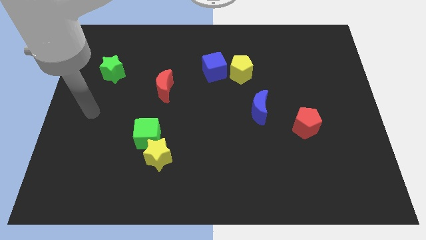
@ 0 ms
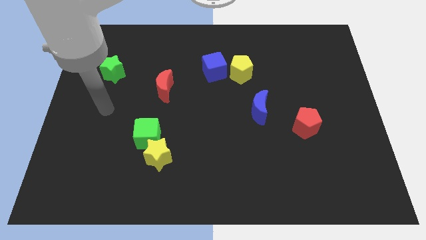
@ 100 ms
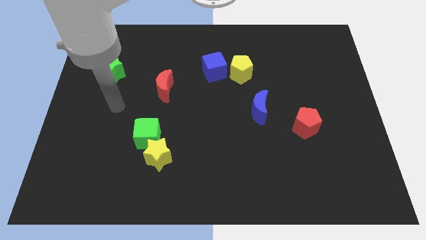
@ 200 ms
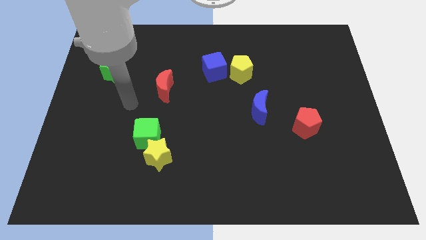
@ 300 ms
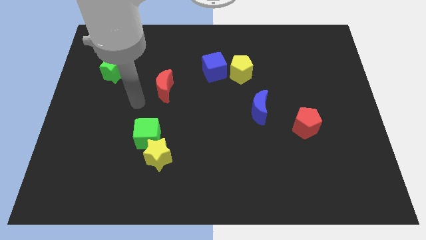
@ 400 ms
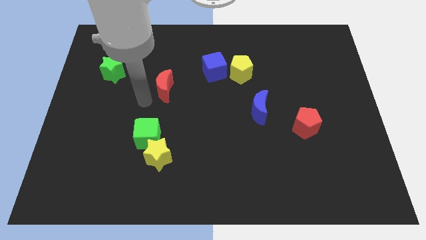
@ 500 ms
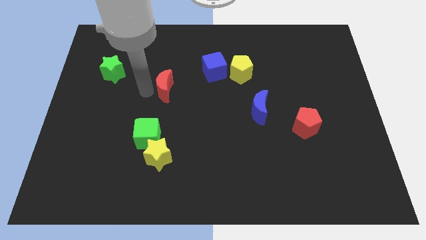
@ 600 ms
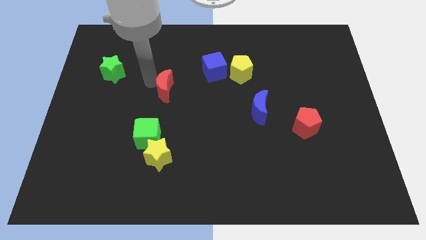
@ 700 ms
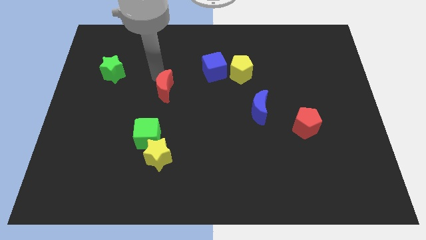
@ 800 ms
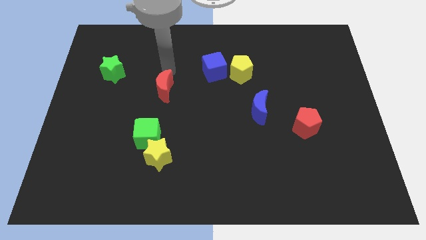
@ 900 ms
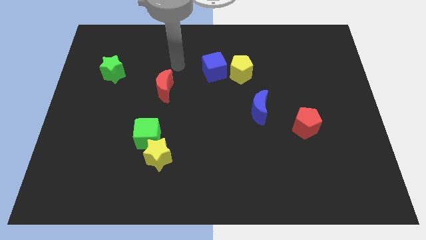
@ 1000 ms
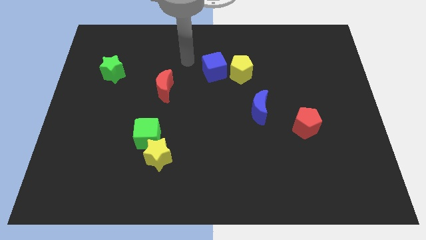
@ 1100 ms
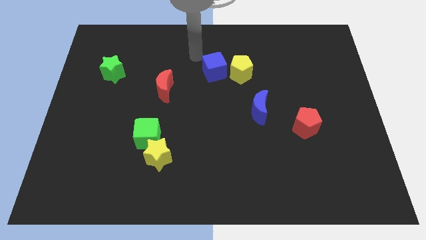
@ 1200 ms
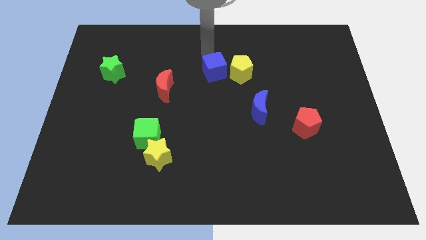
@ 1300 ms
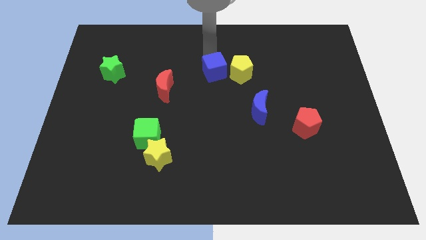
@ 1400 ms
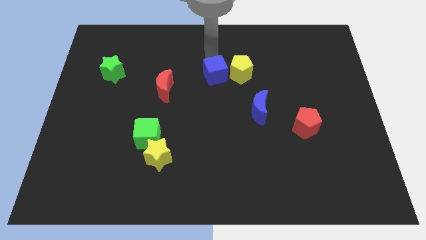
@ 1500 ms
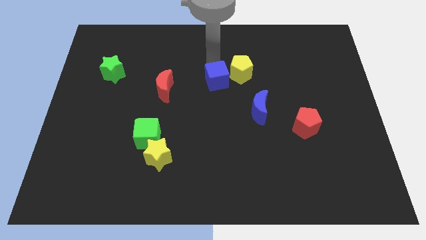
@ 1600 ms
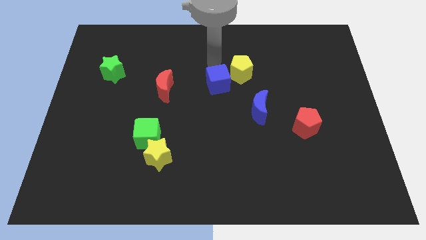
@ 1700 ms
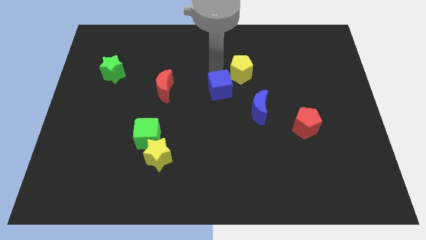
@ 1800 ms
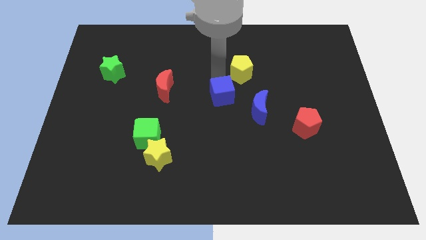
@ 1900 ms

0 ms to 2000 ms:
push the blue cube down a bit

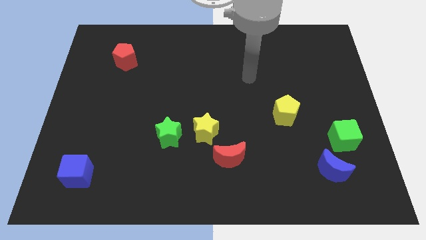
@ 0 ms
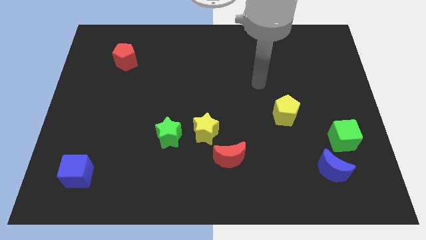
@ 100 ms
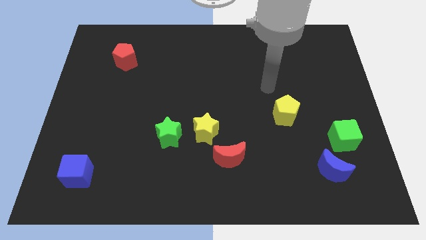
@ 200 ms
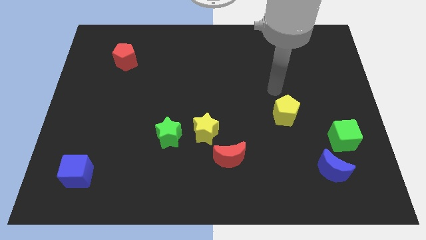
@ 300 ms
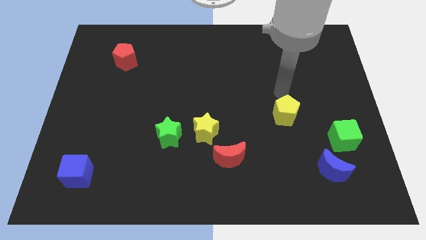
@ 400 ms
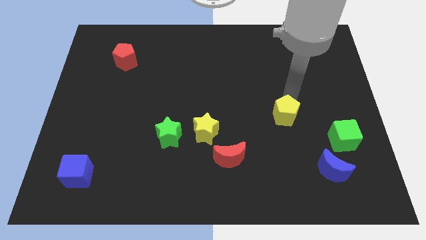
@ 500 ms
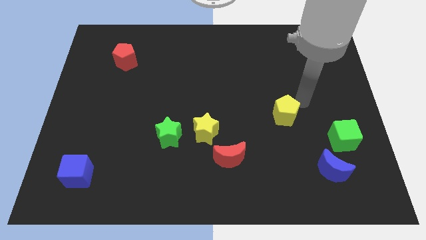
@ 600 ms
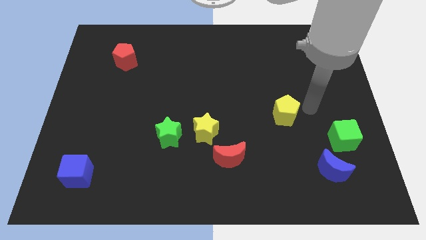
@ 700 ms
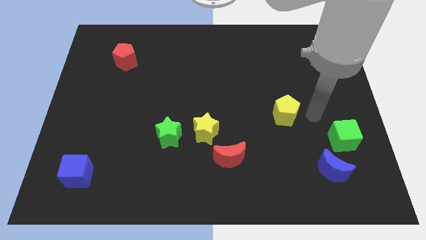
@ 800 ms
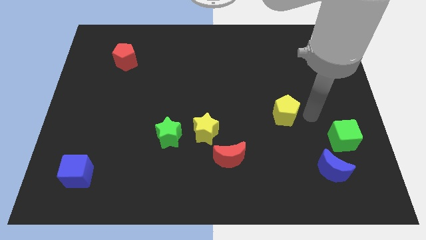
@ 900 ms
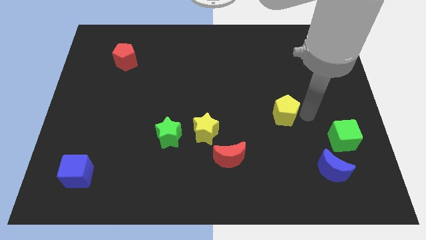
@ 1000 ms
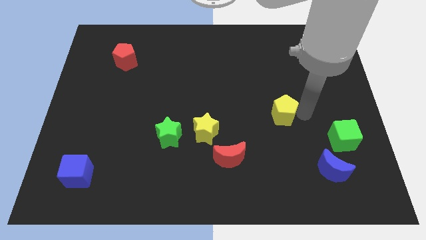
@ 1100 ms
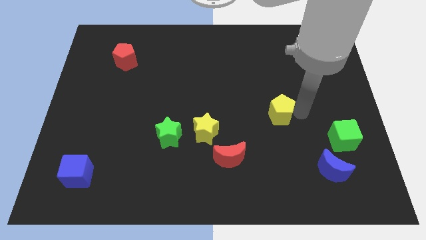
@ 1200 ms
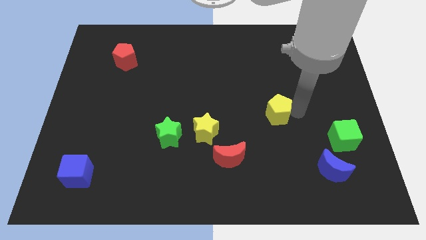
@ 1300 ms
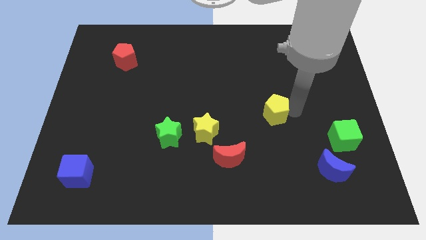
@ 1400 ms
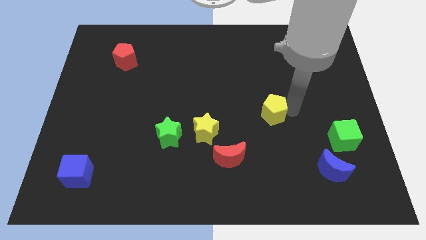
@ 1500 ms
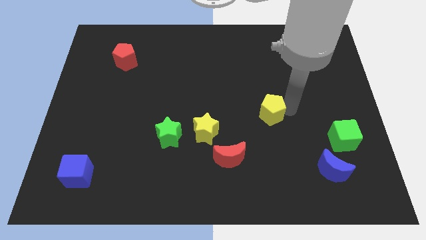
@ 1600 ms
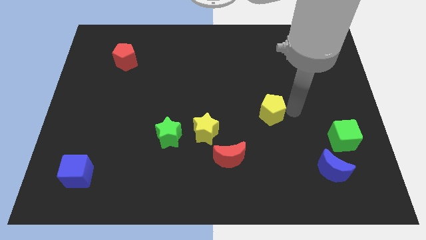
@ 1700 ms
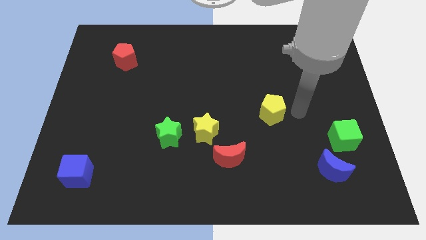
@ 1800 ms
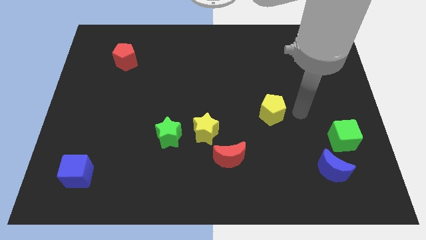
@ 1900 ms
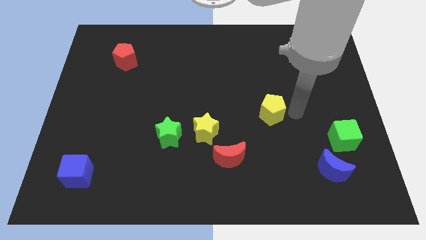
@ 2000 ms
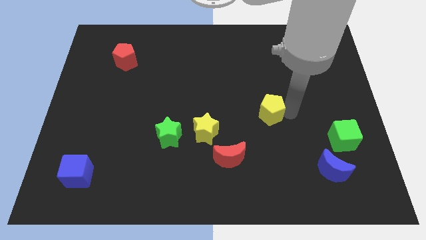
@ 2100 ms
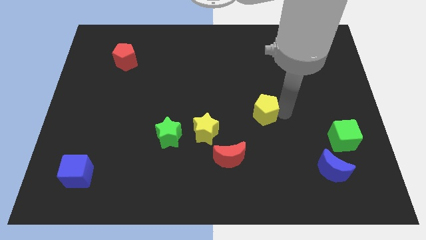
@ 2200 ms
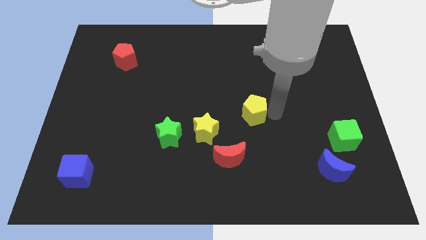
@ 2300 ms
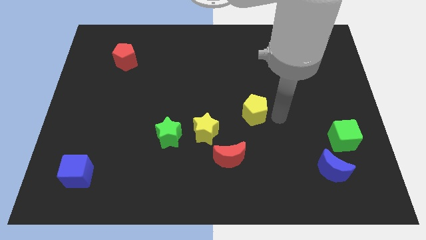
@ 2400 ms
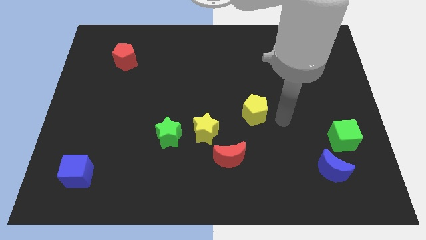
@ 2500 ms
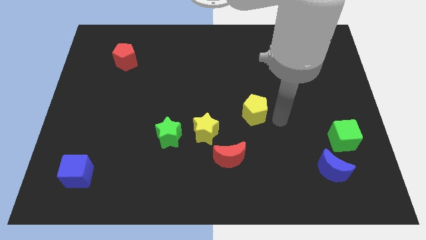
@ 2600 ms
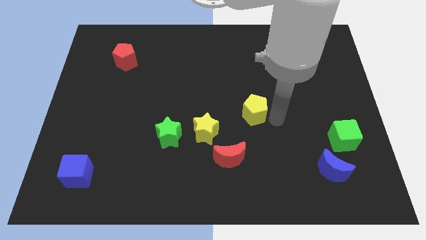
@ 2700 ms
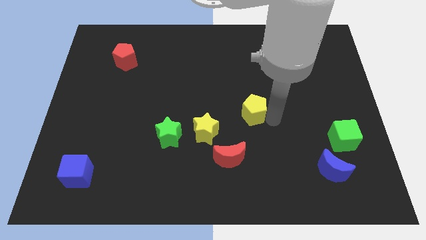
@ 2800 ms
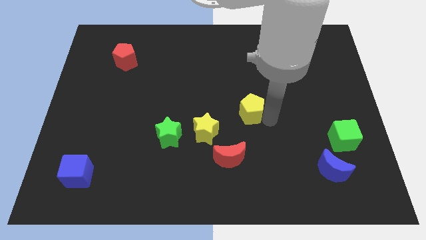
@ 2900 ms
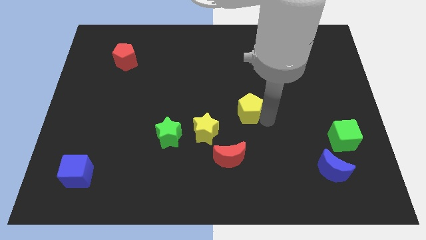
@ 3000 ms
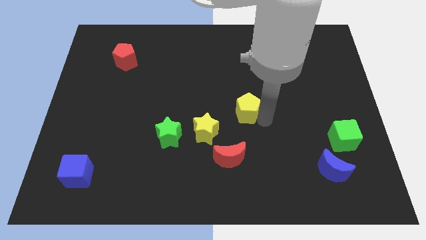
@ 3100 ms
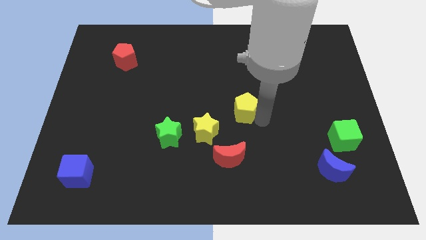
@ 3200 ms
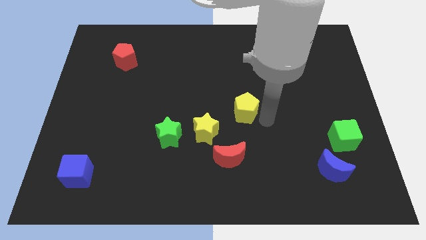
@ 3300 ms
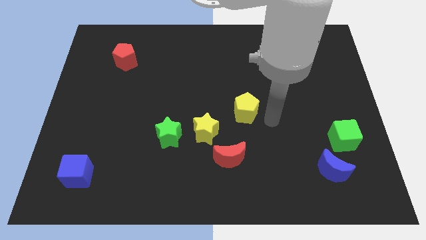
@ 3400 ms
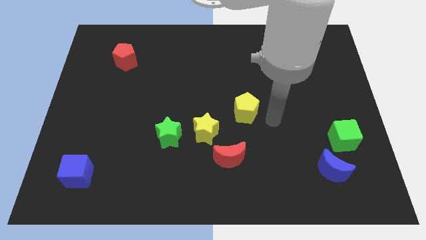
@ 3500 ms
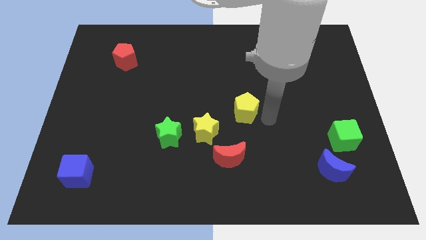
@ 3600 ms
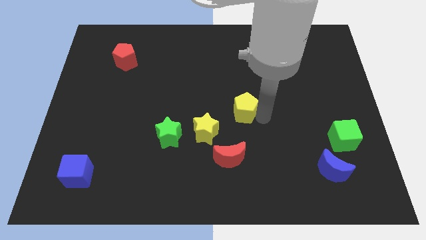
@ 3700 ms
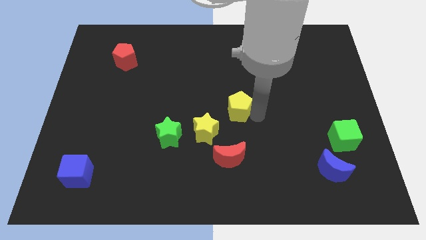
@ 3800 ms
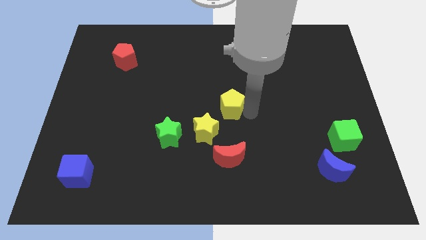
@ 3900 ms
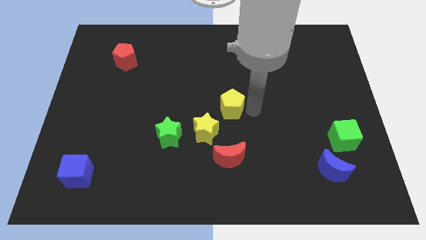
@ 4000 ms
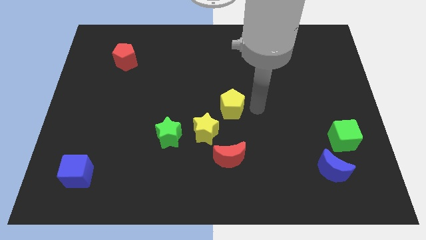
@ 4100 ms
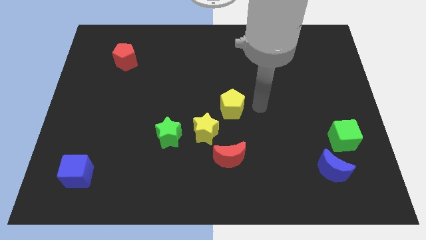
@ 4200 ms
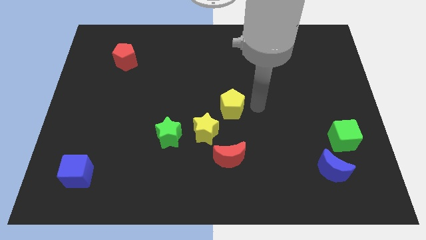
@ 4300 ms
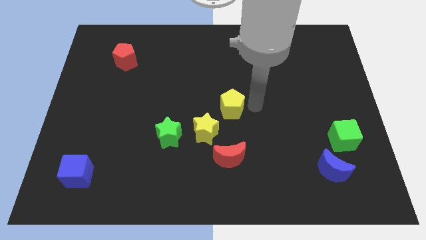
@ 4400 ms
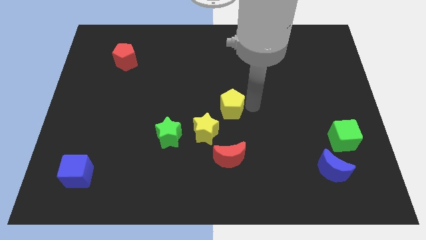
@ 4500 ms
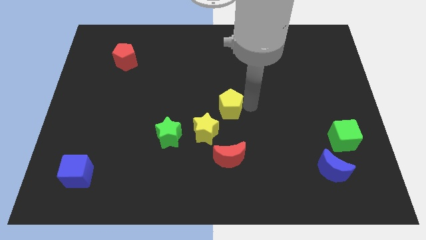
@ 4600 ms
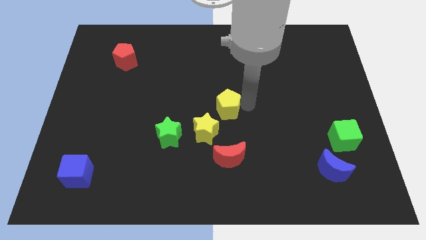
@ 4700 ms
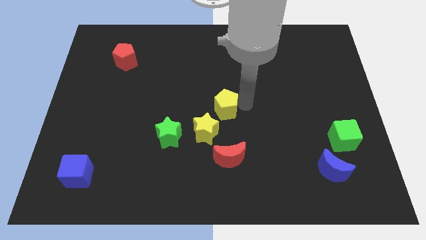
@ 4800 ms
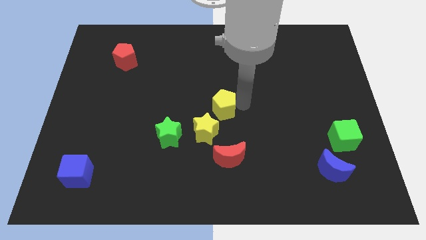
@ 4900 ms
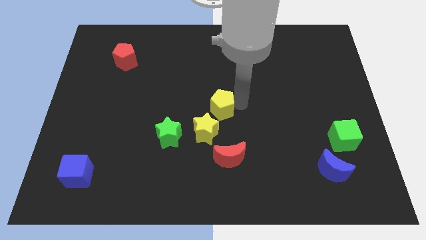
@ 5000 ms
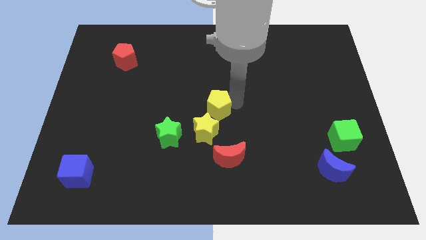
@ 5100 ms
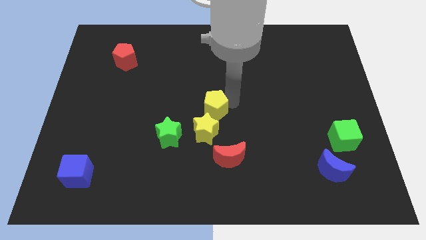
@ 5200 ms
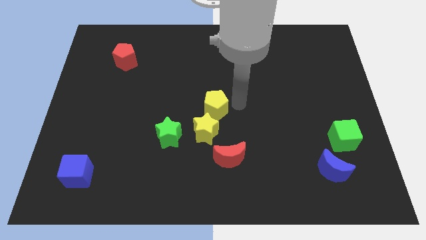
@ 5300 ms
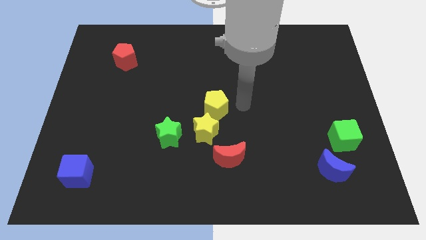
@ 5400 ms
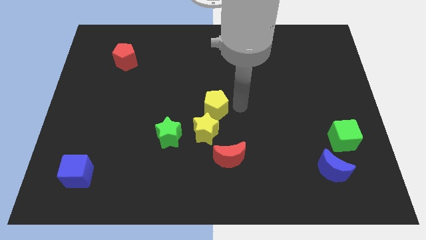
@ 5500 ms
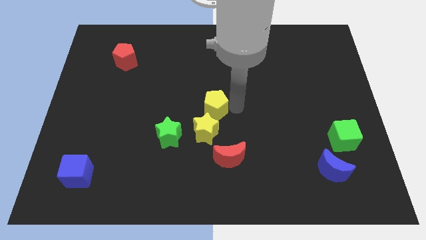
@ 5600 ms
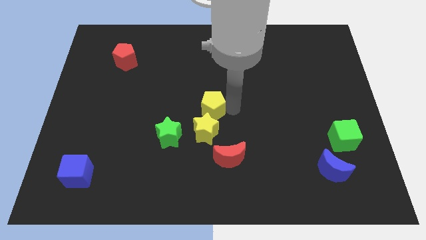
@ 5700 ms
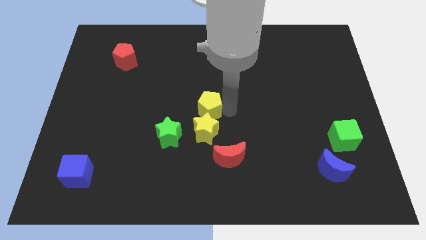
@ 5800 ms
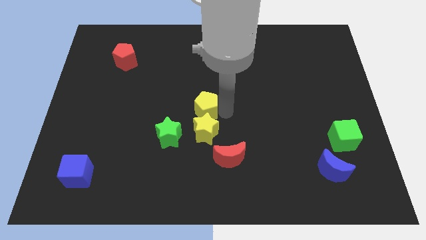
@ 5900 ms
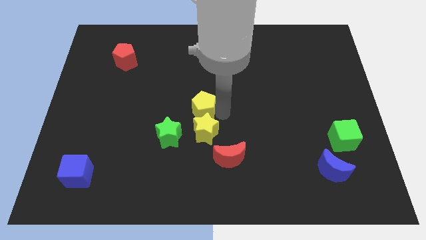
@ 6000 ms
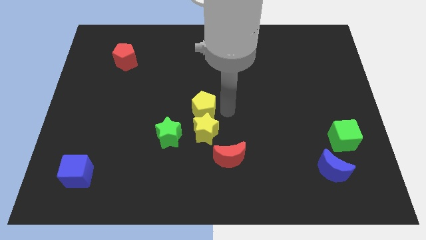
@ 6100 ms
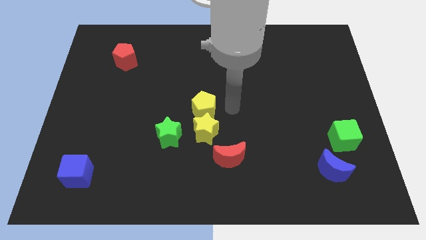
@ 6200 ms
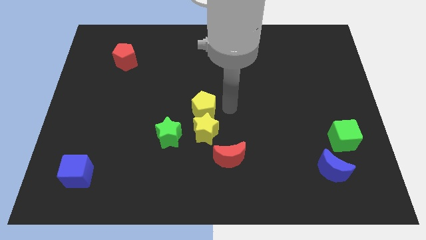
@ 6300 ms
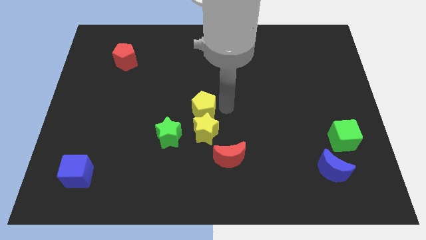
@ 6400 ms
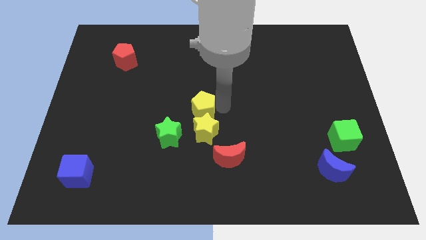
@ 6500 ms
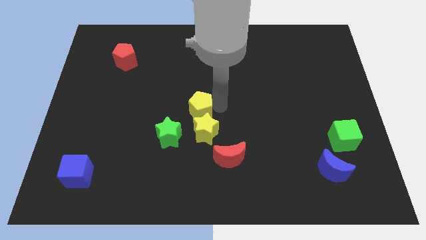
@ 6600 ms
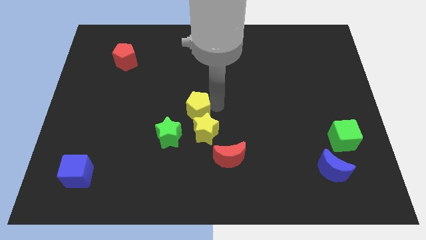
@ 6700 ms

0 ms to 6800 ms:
slide the yellow pentagon left
